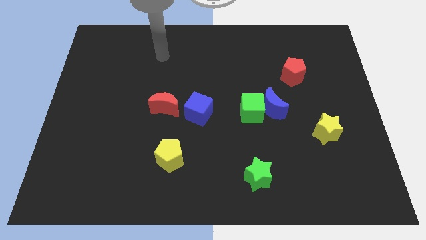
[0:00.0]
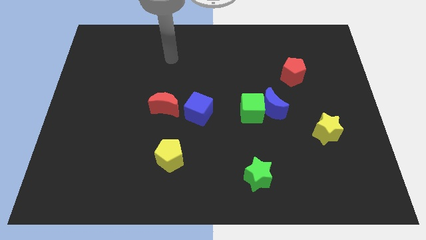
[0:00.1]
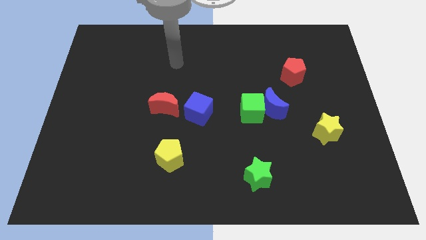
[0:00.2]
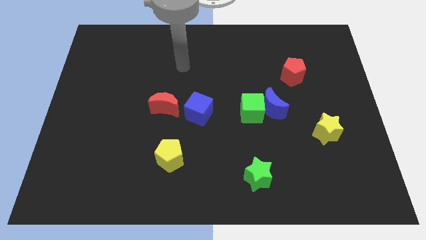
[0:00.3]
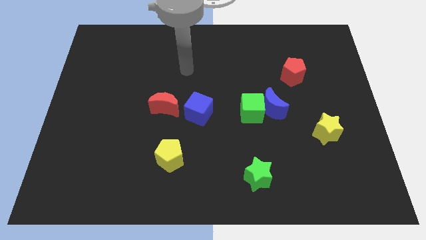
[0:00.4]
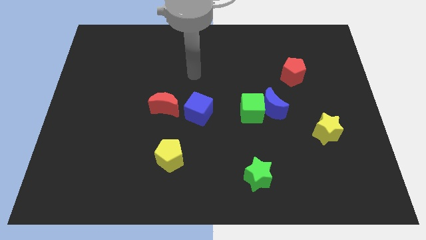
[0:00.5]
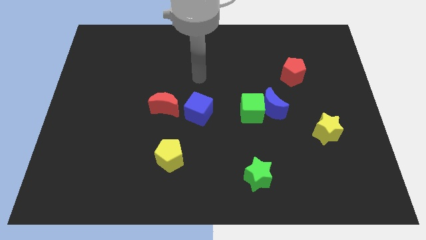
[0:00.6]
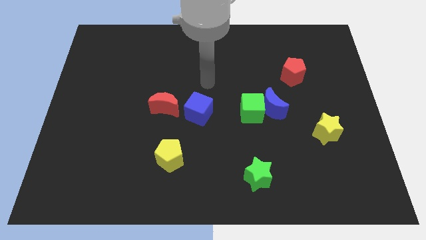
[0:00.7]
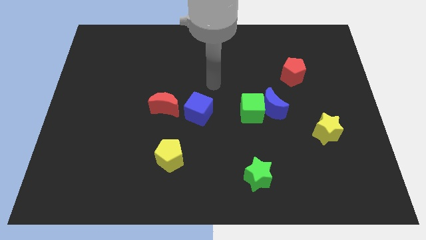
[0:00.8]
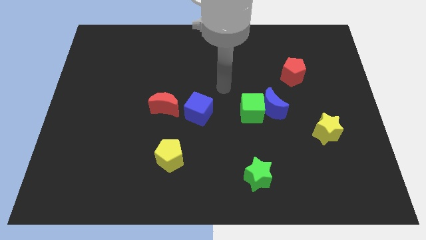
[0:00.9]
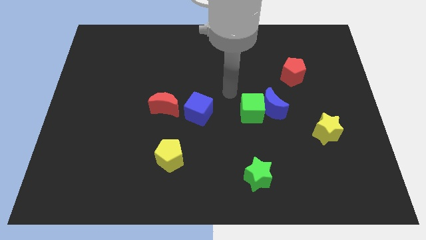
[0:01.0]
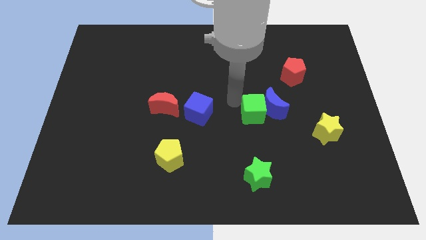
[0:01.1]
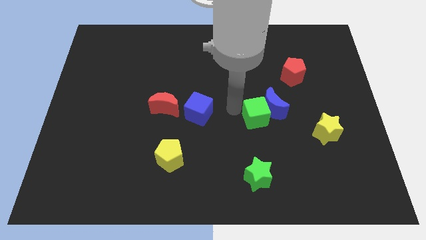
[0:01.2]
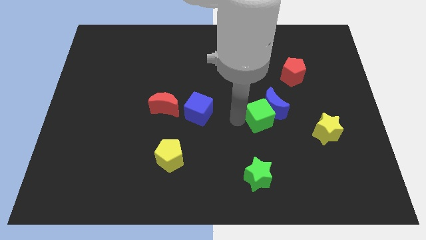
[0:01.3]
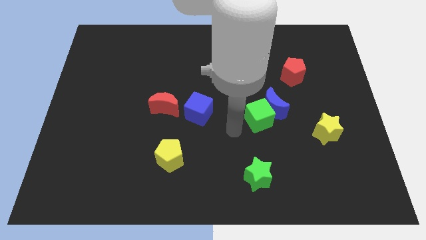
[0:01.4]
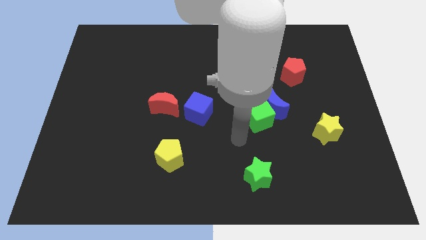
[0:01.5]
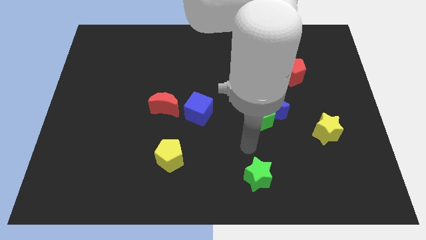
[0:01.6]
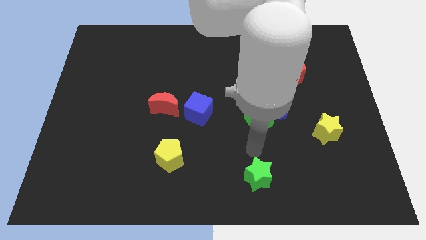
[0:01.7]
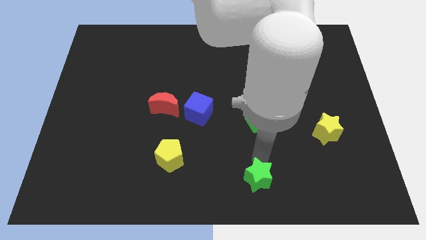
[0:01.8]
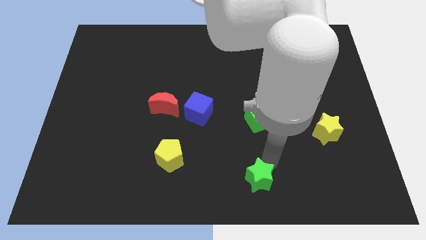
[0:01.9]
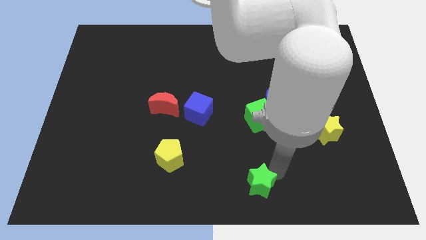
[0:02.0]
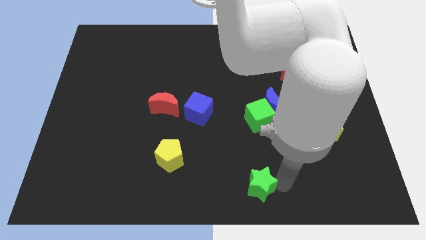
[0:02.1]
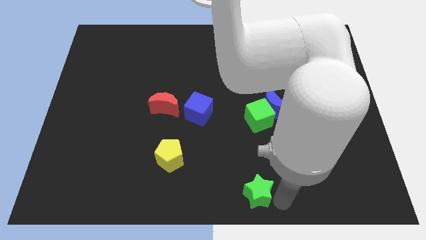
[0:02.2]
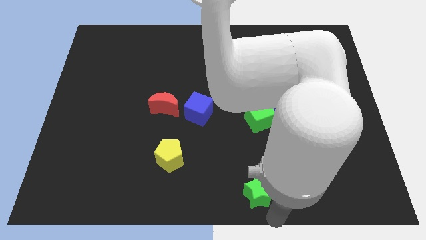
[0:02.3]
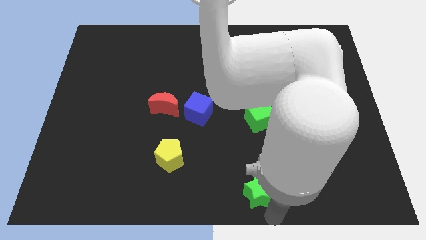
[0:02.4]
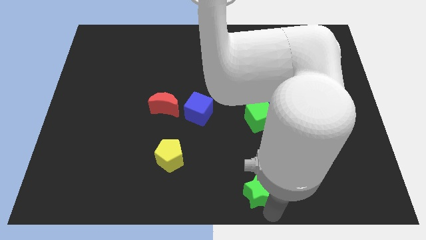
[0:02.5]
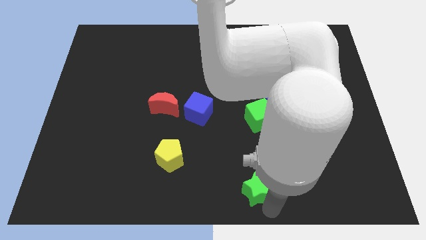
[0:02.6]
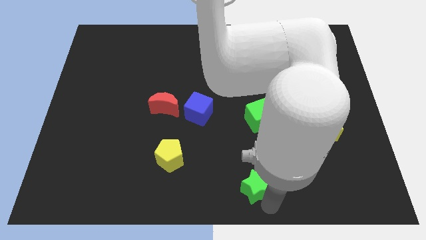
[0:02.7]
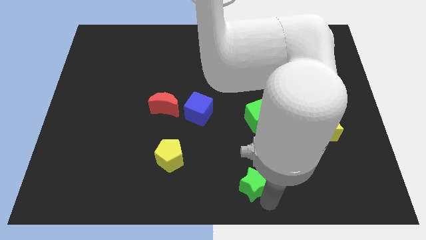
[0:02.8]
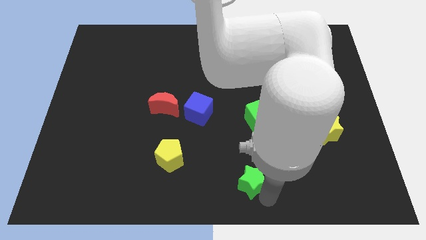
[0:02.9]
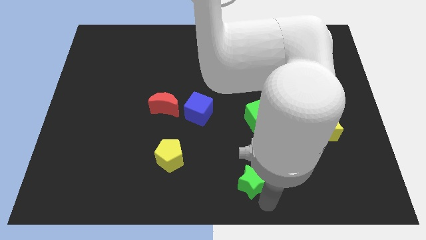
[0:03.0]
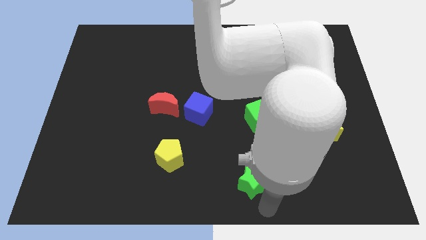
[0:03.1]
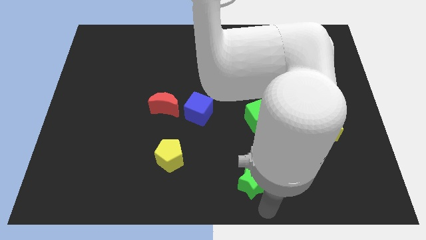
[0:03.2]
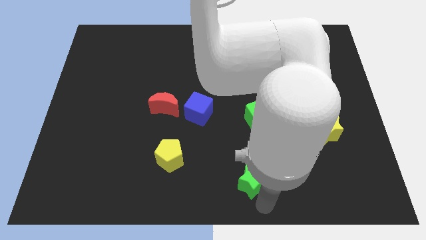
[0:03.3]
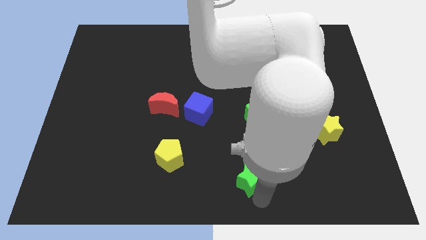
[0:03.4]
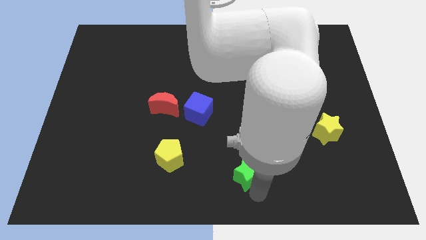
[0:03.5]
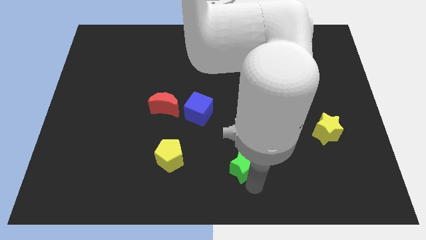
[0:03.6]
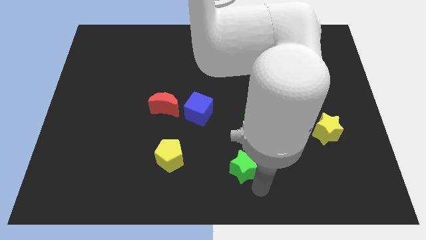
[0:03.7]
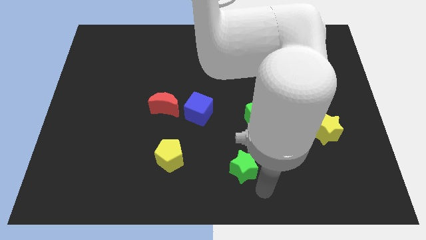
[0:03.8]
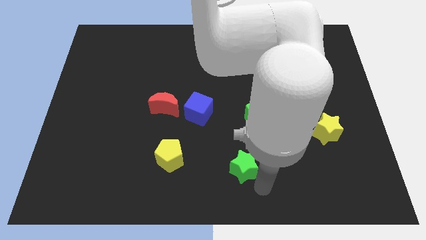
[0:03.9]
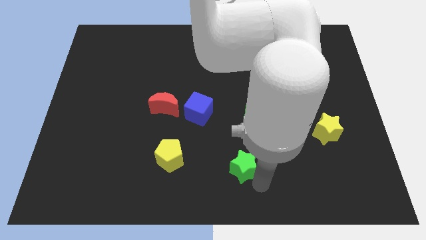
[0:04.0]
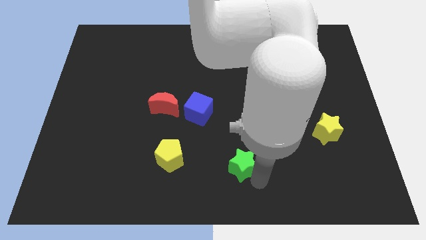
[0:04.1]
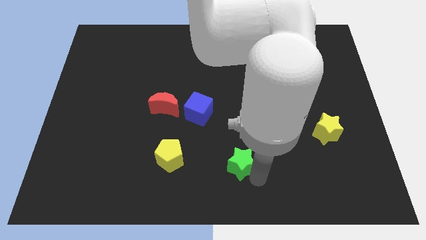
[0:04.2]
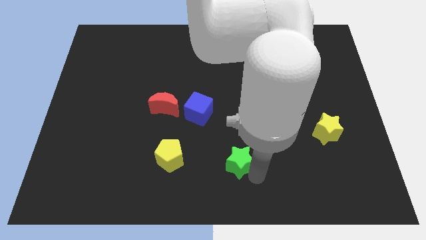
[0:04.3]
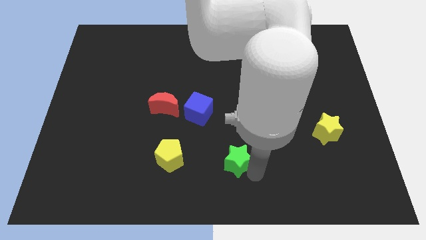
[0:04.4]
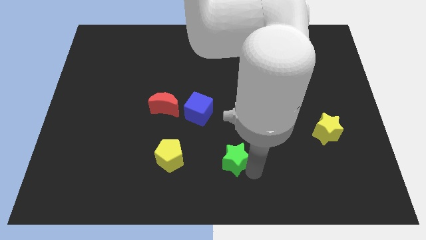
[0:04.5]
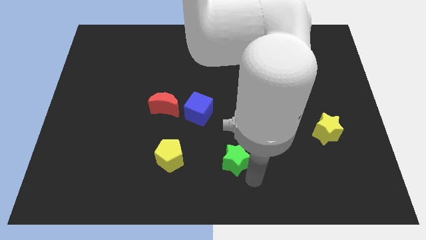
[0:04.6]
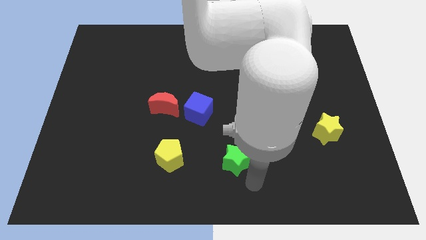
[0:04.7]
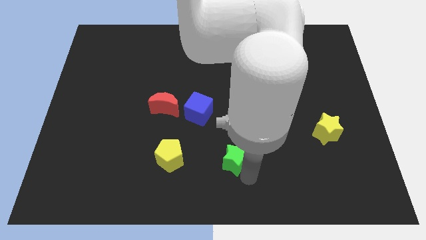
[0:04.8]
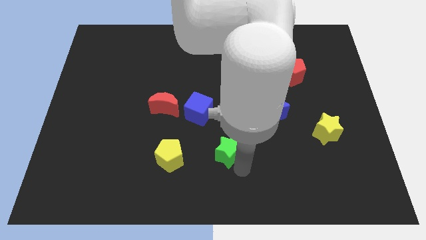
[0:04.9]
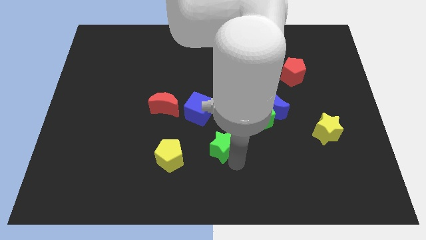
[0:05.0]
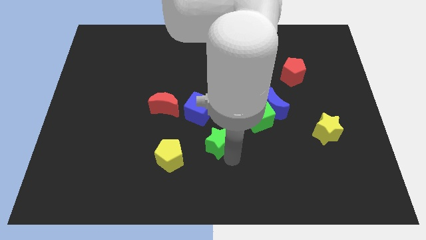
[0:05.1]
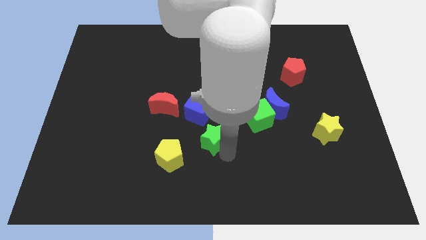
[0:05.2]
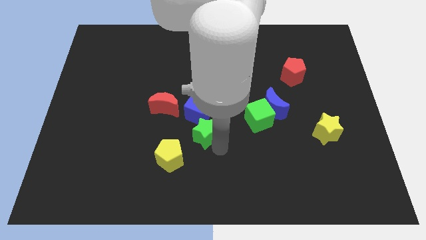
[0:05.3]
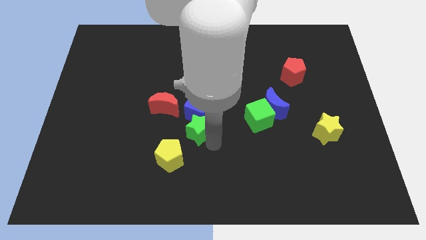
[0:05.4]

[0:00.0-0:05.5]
put the green star to the blue cube

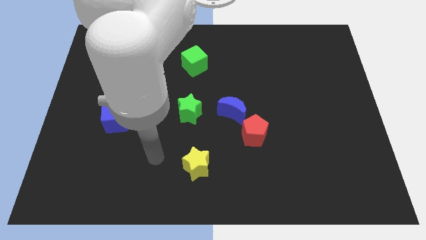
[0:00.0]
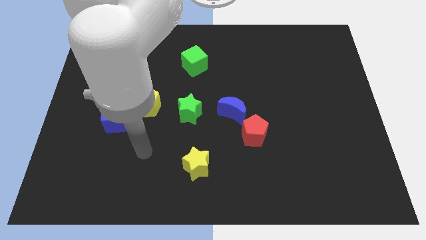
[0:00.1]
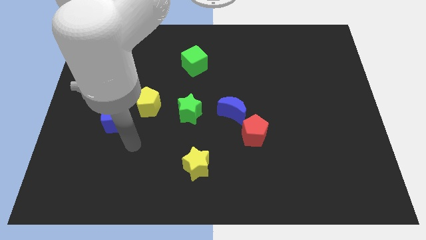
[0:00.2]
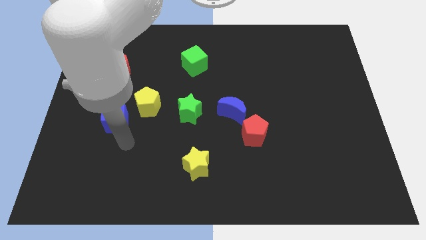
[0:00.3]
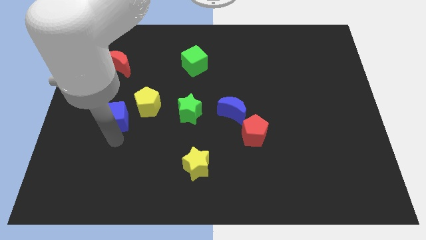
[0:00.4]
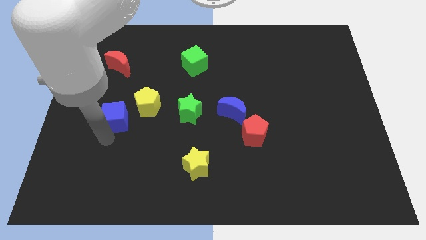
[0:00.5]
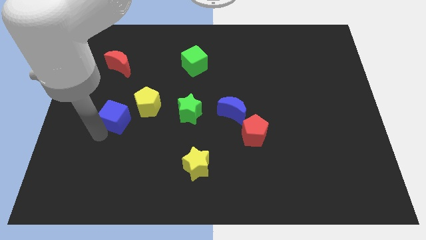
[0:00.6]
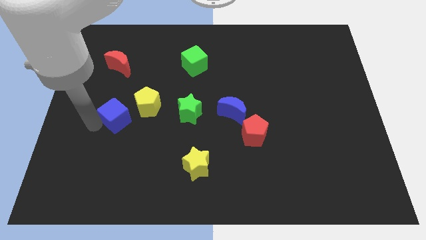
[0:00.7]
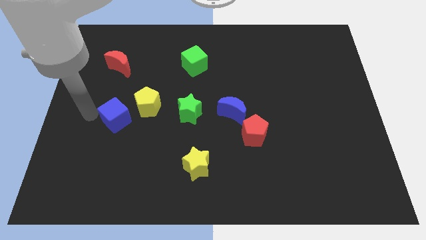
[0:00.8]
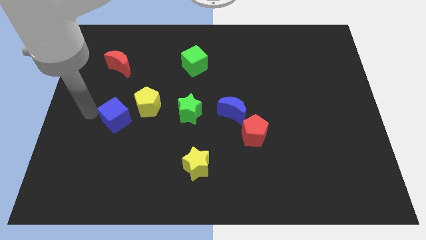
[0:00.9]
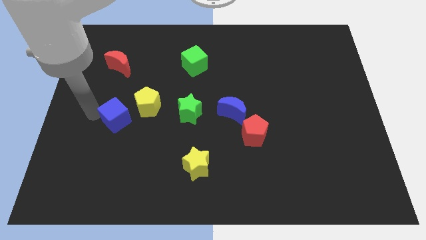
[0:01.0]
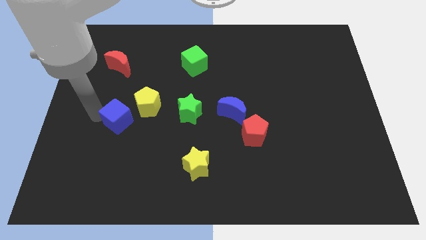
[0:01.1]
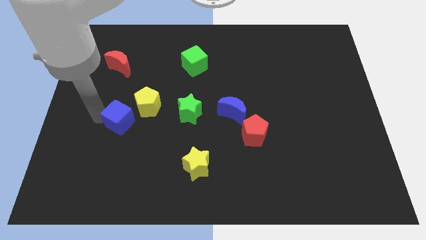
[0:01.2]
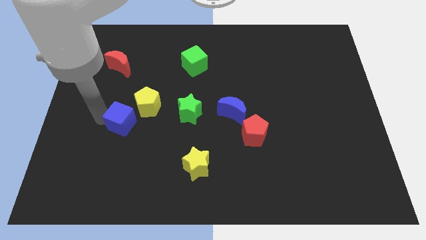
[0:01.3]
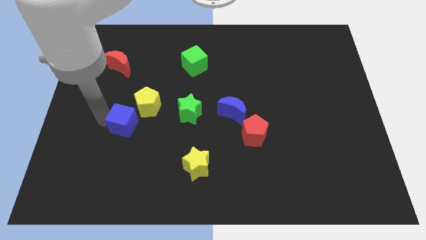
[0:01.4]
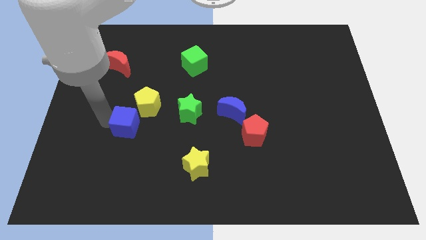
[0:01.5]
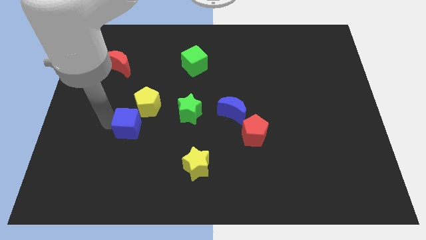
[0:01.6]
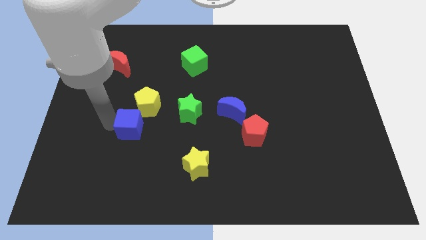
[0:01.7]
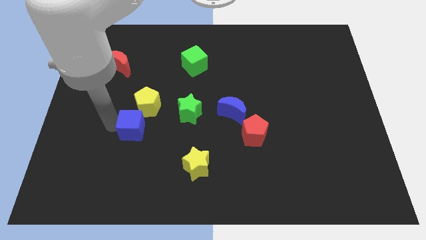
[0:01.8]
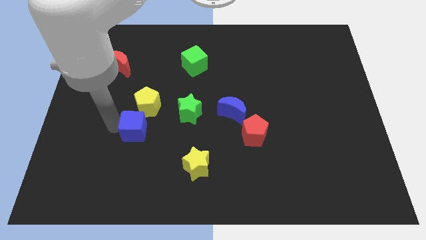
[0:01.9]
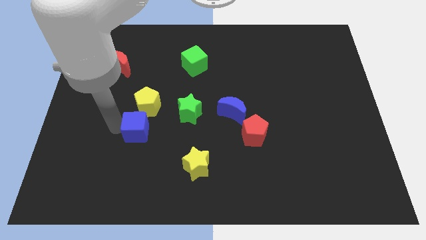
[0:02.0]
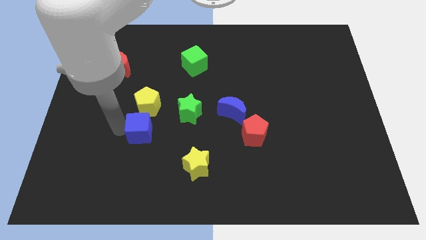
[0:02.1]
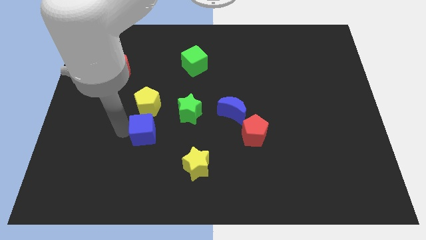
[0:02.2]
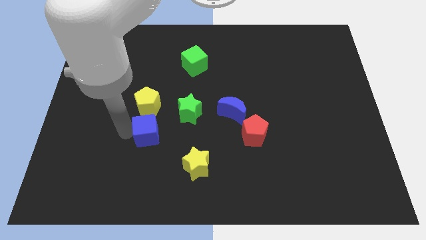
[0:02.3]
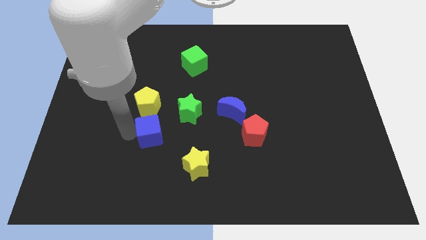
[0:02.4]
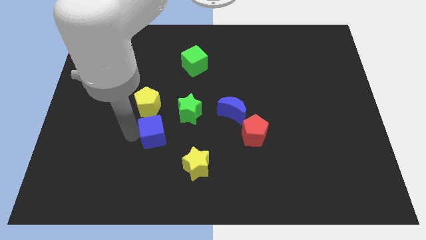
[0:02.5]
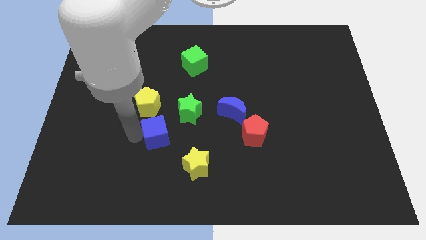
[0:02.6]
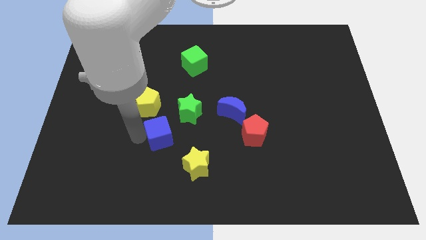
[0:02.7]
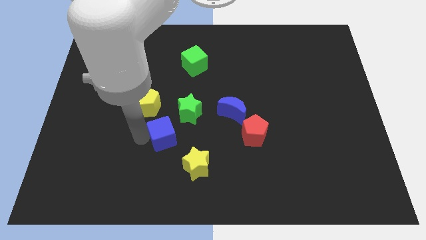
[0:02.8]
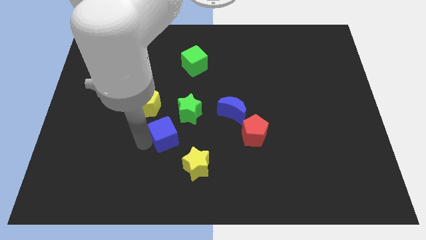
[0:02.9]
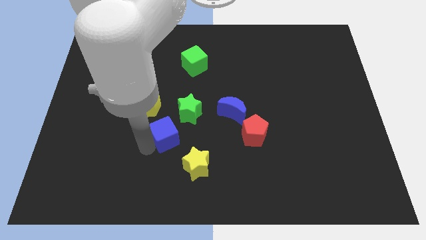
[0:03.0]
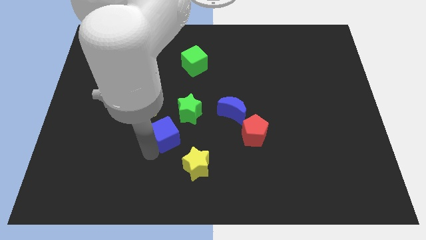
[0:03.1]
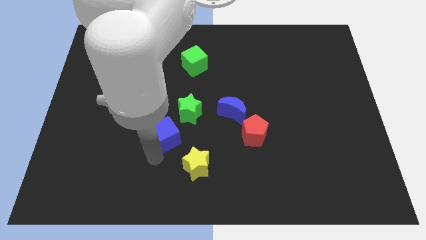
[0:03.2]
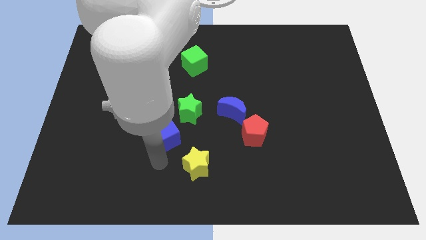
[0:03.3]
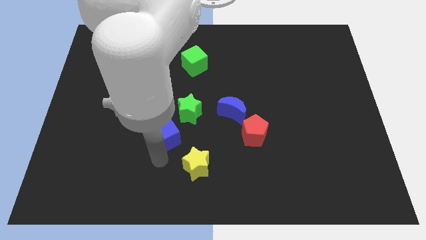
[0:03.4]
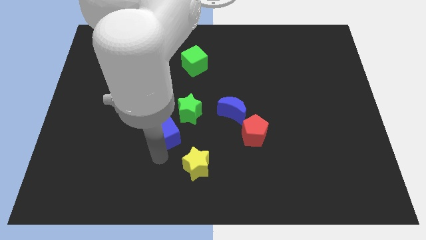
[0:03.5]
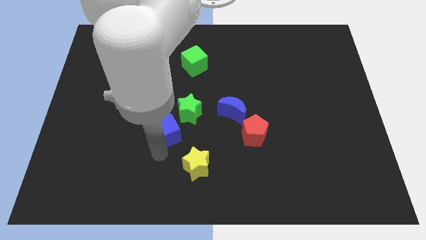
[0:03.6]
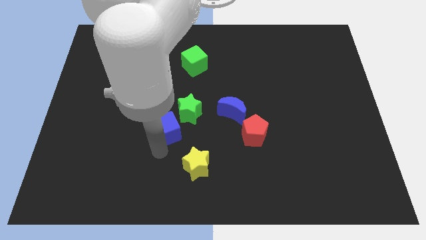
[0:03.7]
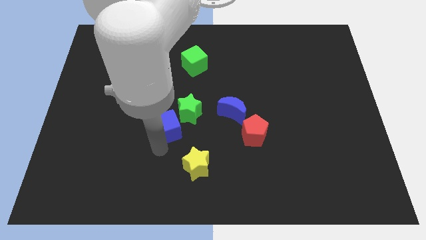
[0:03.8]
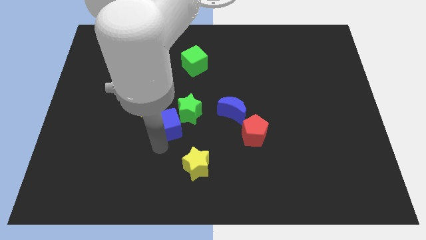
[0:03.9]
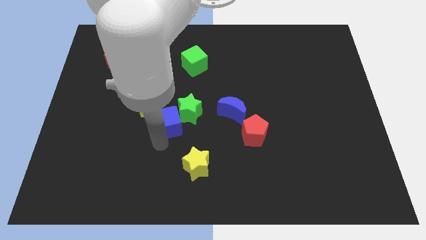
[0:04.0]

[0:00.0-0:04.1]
push the blue cube towards the green star
